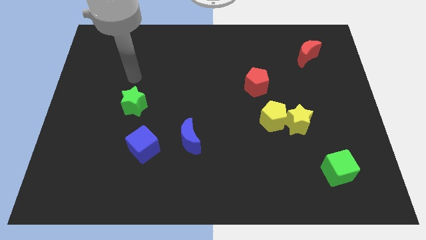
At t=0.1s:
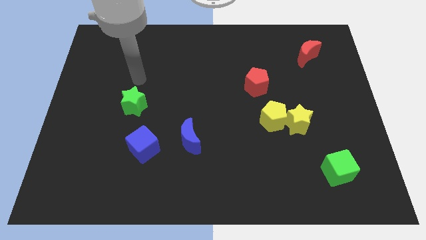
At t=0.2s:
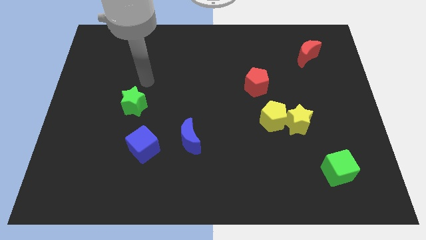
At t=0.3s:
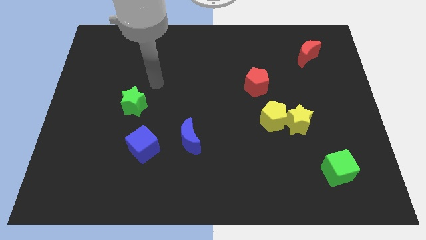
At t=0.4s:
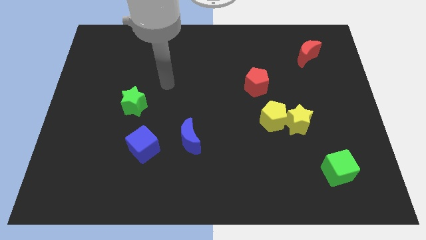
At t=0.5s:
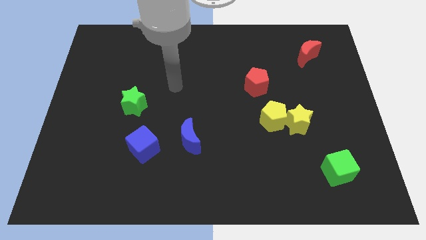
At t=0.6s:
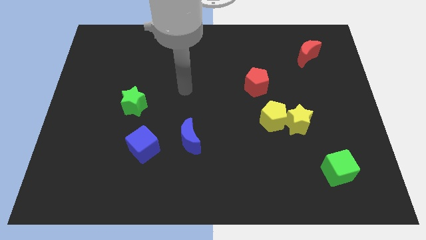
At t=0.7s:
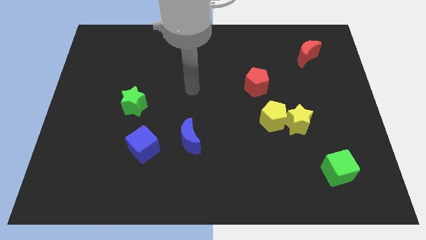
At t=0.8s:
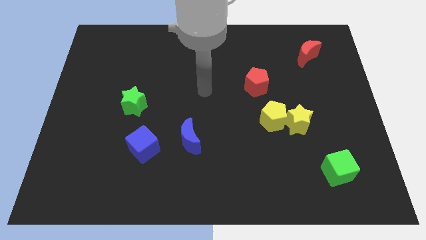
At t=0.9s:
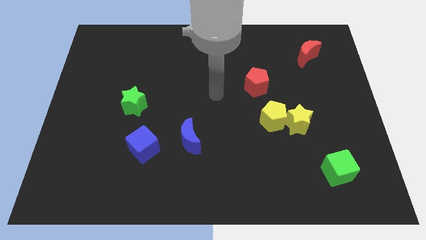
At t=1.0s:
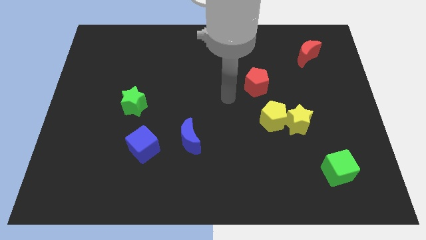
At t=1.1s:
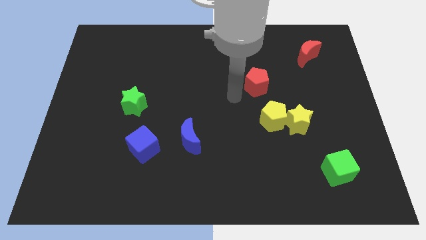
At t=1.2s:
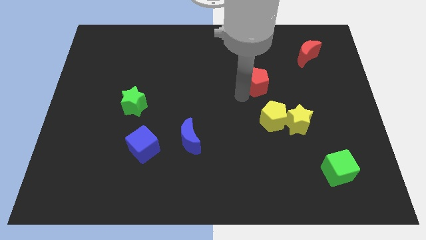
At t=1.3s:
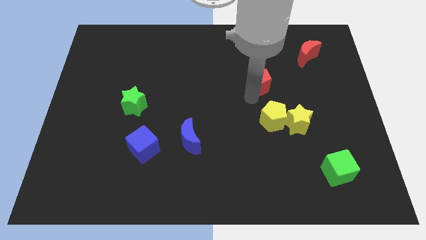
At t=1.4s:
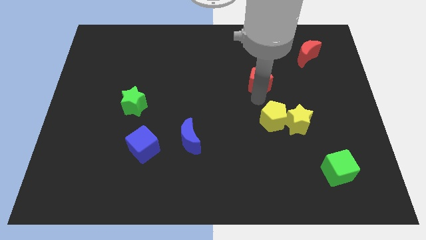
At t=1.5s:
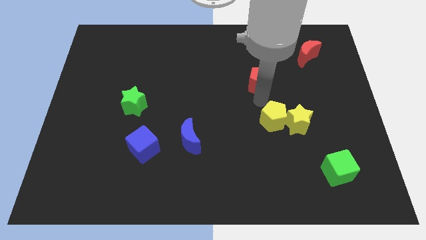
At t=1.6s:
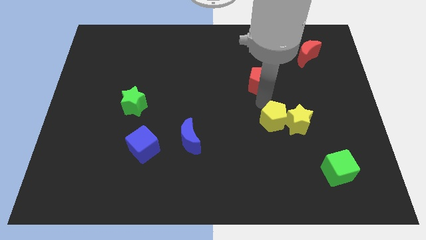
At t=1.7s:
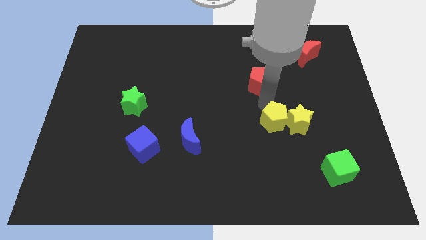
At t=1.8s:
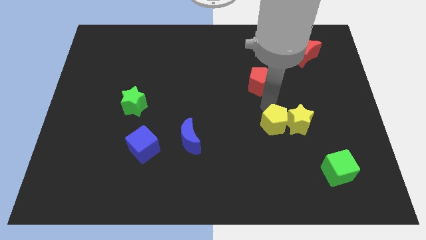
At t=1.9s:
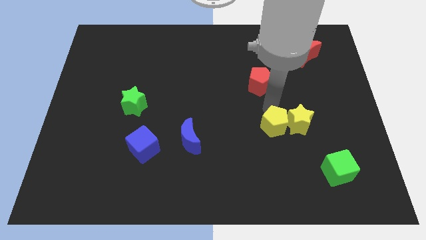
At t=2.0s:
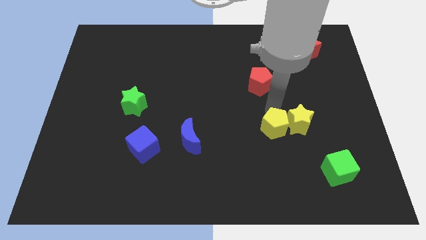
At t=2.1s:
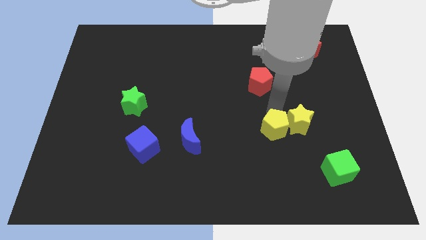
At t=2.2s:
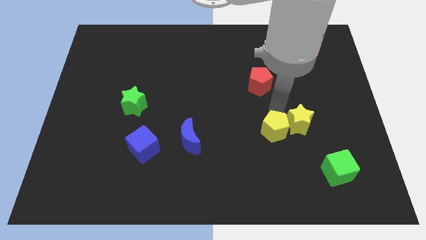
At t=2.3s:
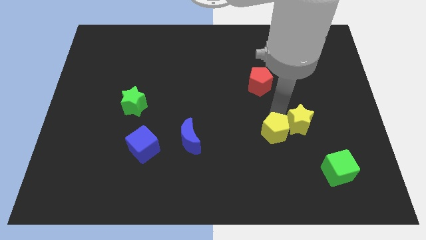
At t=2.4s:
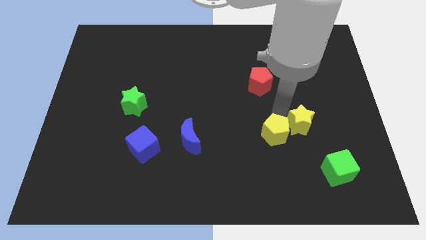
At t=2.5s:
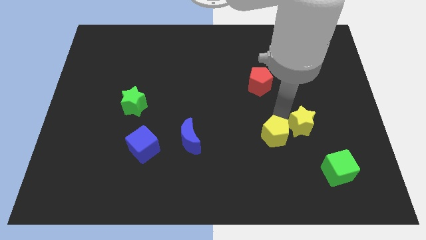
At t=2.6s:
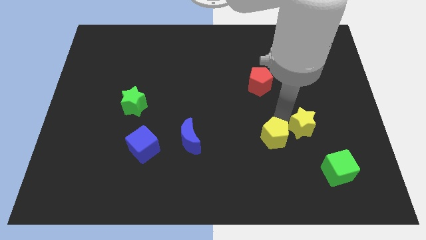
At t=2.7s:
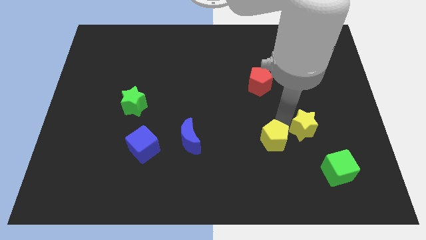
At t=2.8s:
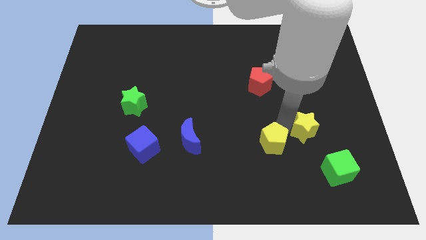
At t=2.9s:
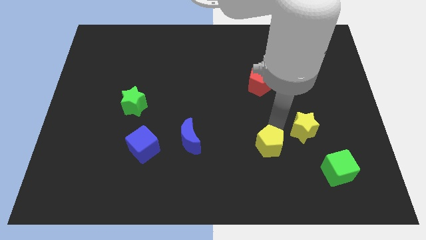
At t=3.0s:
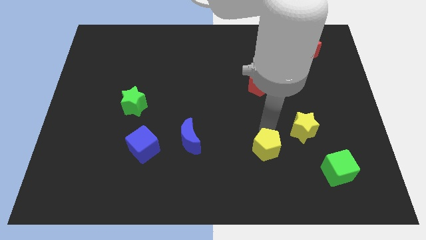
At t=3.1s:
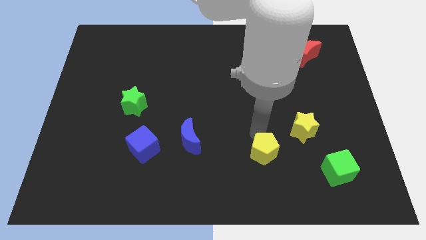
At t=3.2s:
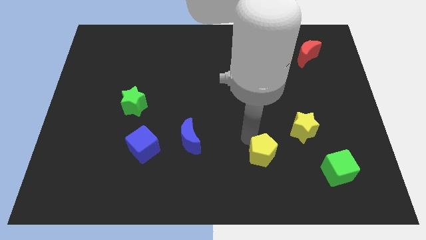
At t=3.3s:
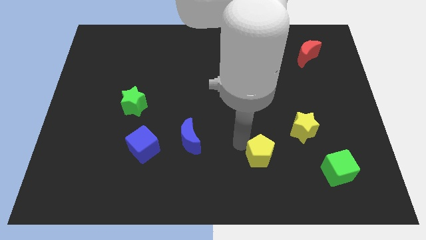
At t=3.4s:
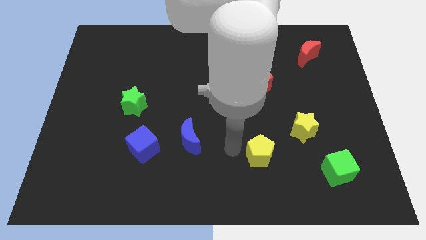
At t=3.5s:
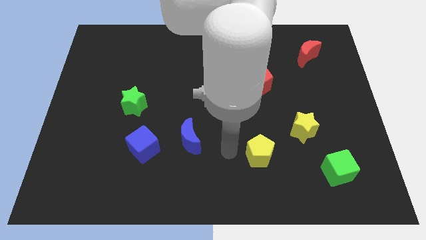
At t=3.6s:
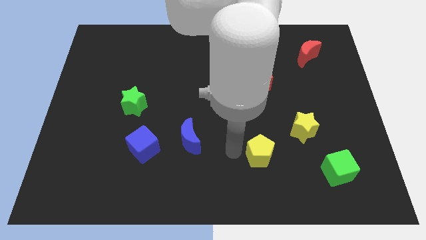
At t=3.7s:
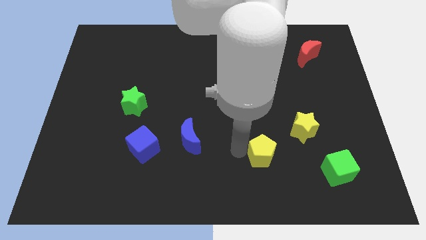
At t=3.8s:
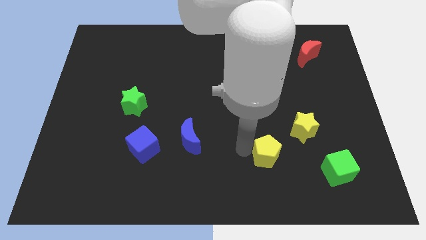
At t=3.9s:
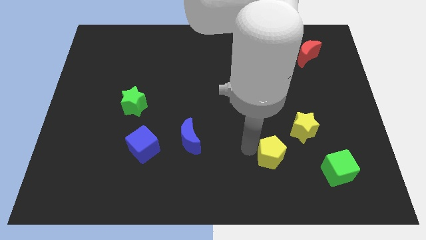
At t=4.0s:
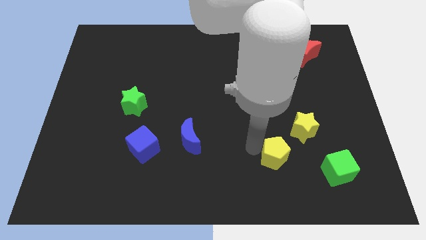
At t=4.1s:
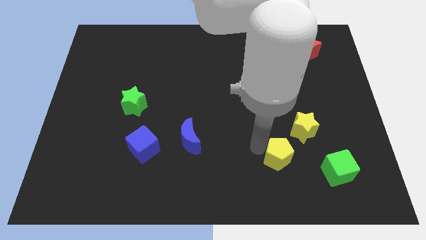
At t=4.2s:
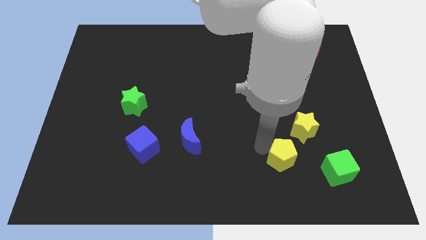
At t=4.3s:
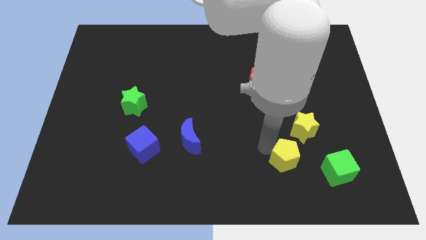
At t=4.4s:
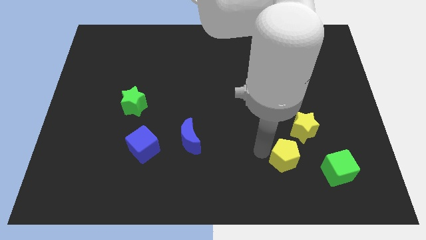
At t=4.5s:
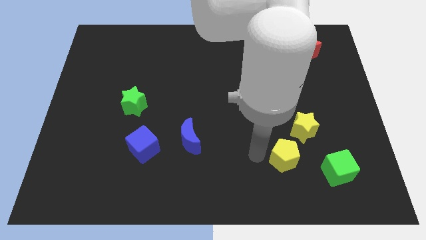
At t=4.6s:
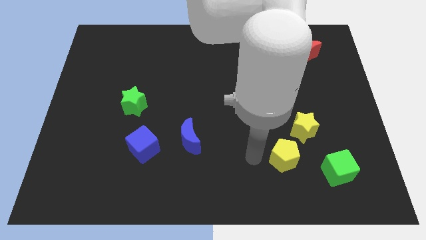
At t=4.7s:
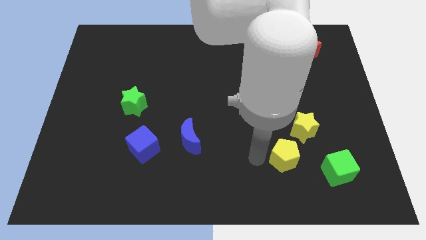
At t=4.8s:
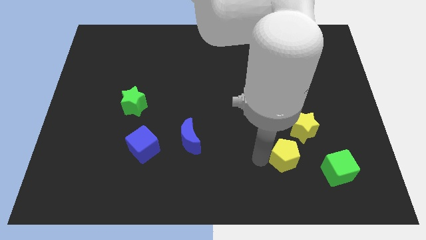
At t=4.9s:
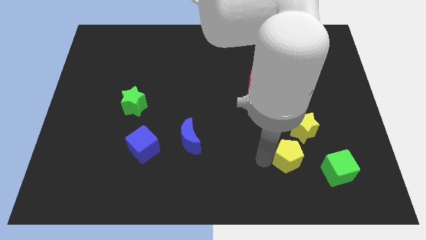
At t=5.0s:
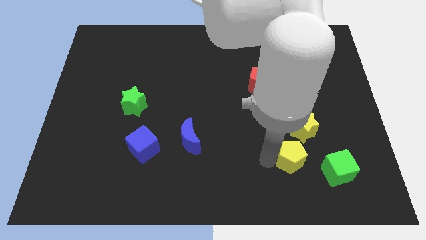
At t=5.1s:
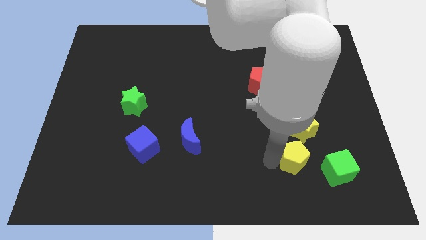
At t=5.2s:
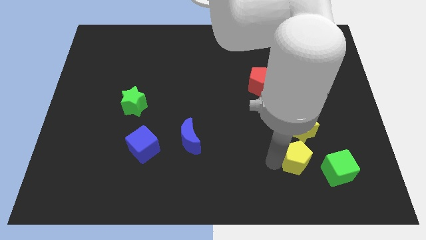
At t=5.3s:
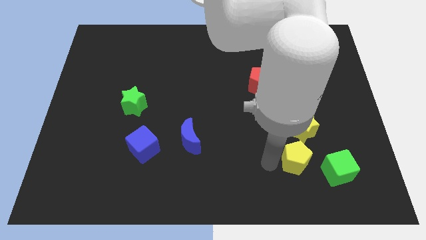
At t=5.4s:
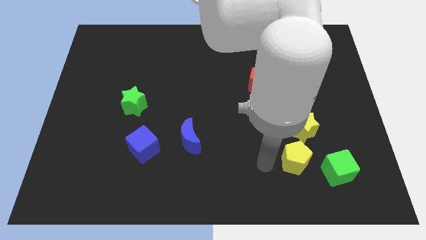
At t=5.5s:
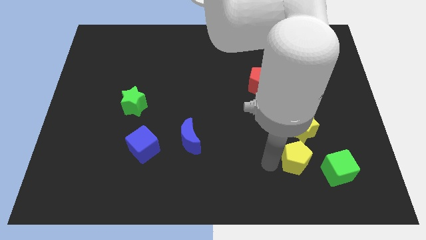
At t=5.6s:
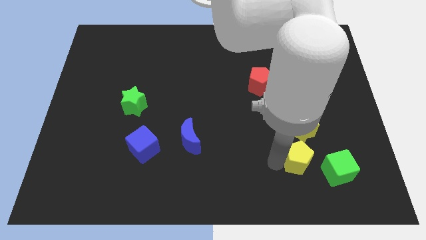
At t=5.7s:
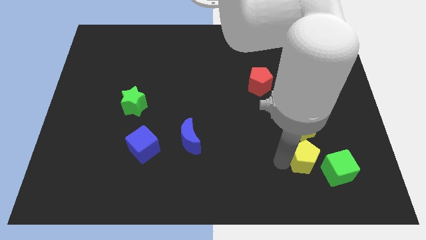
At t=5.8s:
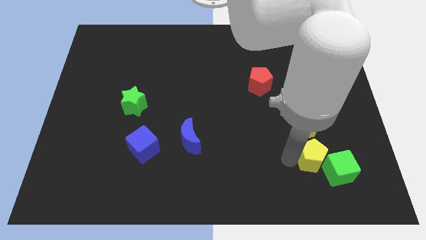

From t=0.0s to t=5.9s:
move the yellow pentagon close to the green cube

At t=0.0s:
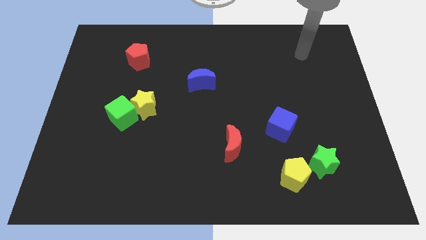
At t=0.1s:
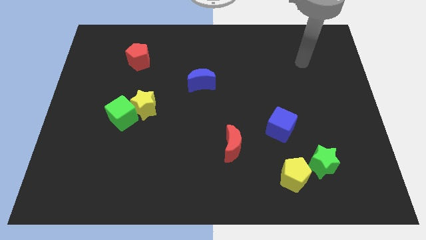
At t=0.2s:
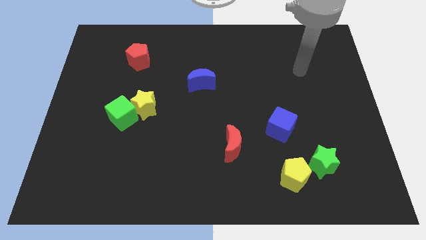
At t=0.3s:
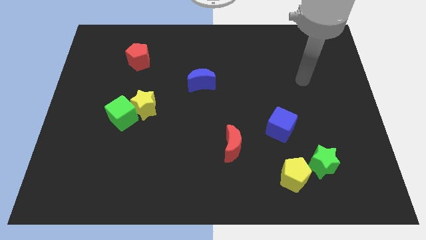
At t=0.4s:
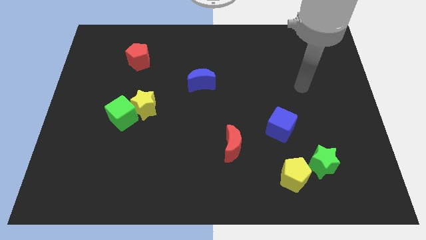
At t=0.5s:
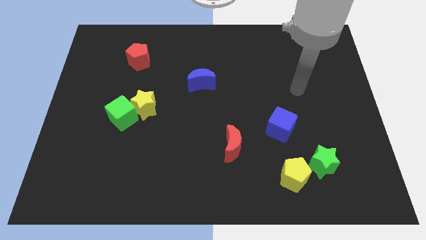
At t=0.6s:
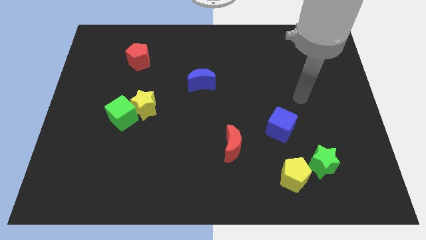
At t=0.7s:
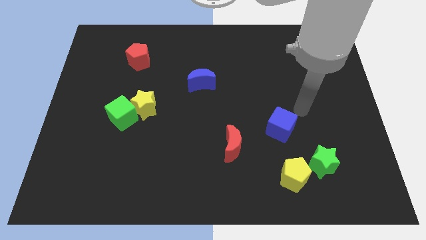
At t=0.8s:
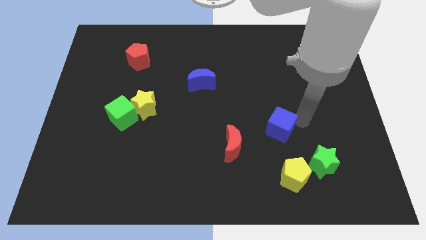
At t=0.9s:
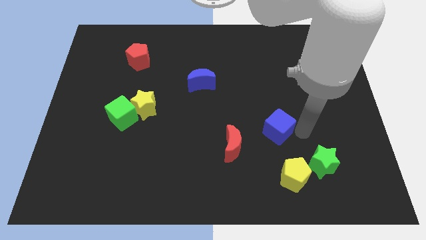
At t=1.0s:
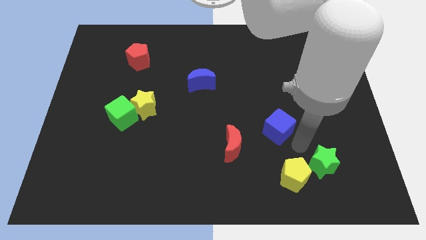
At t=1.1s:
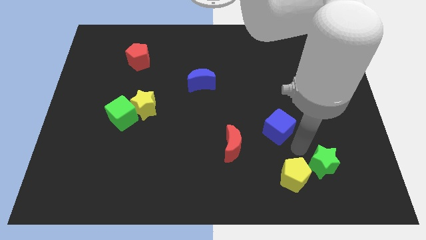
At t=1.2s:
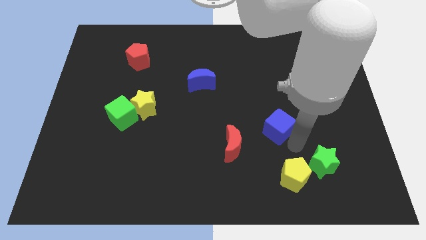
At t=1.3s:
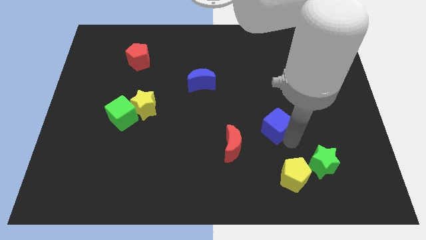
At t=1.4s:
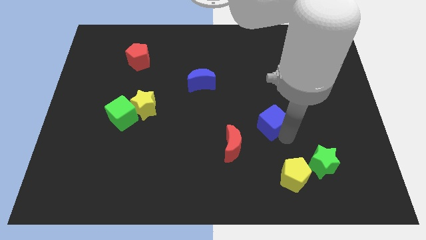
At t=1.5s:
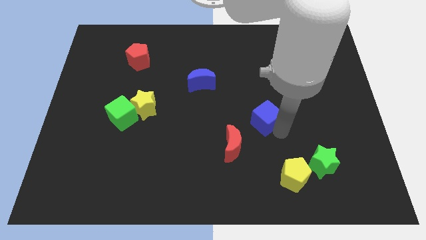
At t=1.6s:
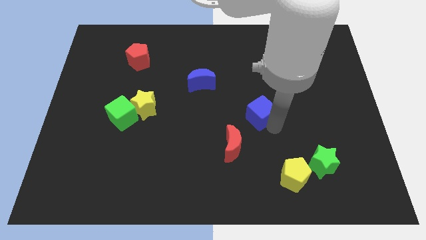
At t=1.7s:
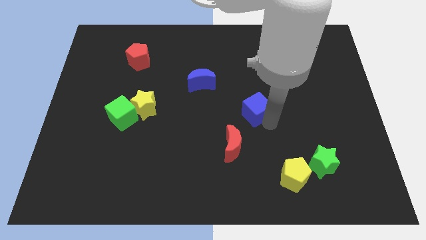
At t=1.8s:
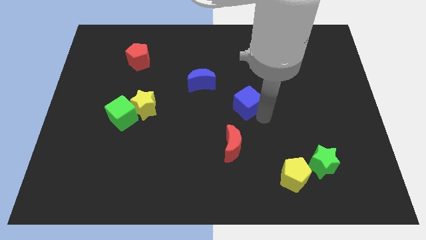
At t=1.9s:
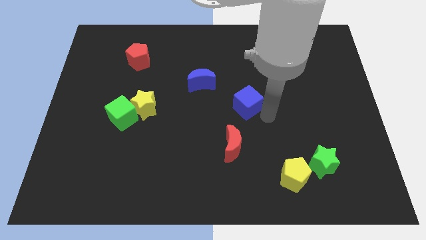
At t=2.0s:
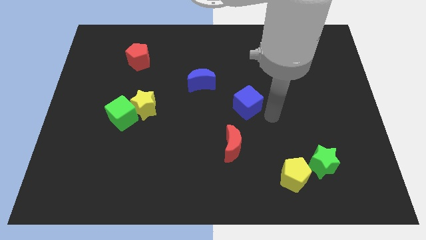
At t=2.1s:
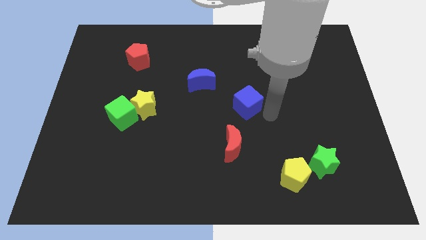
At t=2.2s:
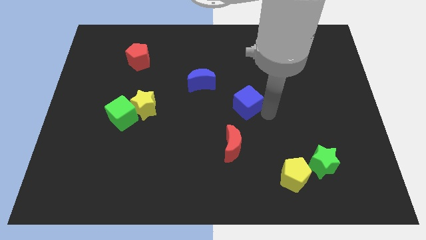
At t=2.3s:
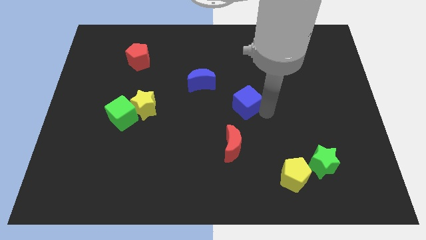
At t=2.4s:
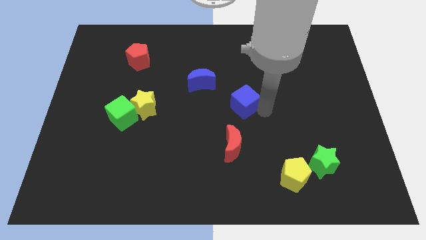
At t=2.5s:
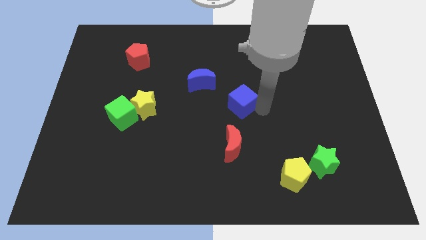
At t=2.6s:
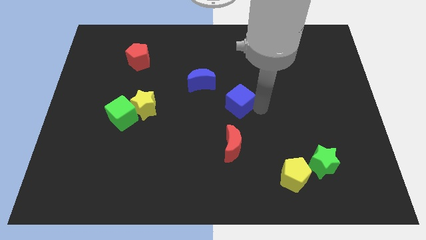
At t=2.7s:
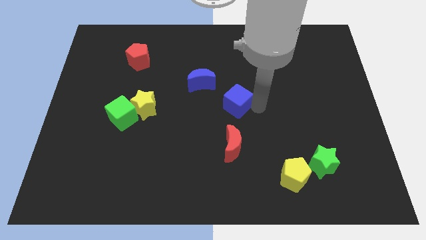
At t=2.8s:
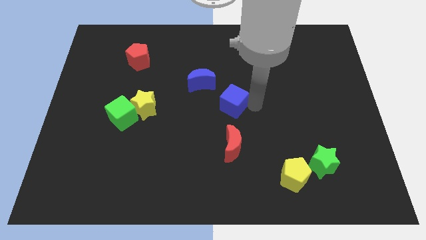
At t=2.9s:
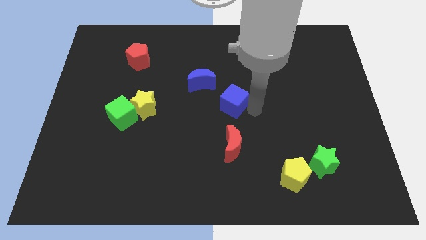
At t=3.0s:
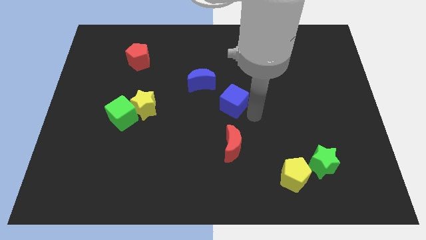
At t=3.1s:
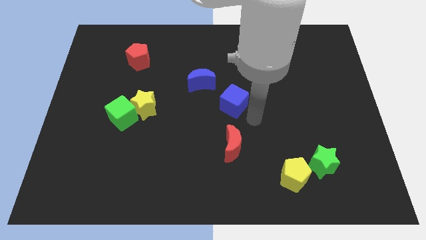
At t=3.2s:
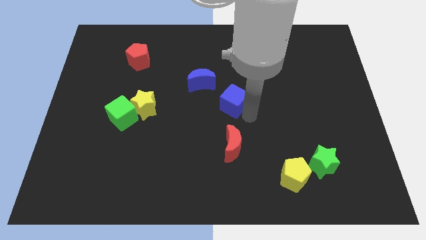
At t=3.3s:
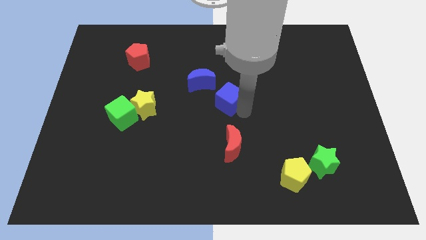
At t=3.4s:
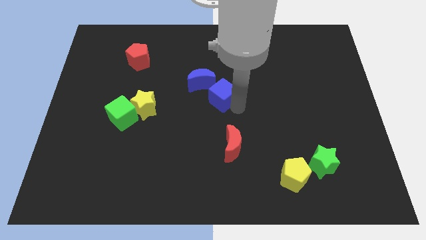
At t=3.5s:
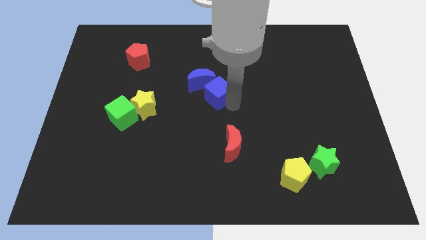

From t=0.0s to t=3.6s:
put the blue cube to the blue moon
